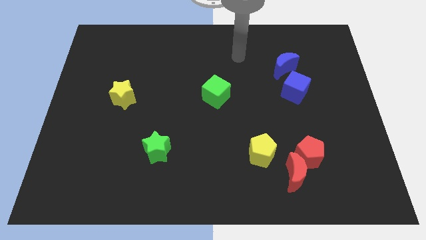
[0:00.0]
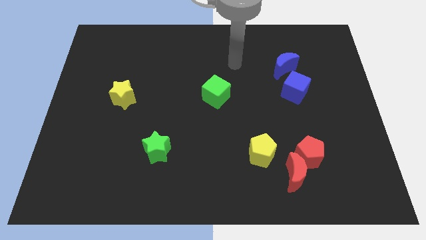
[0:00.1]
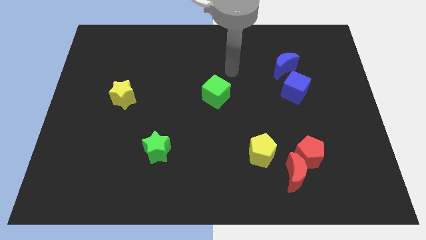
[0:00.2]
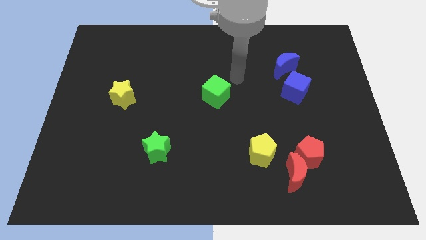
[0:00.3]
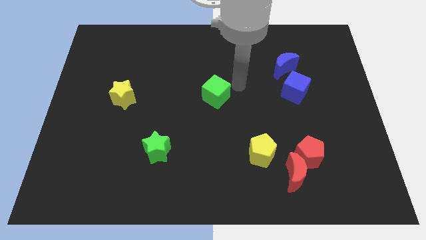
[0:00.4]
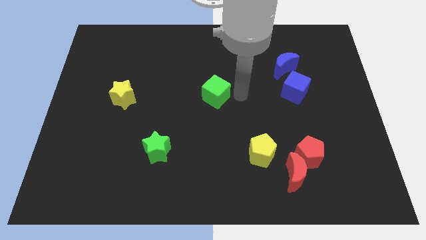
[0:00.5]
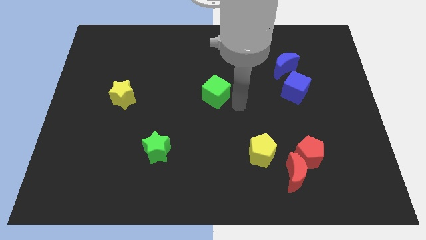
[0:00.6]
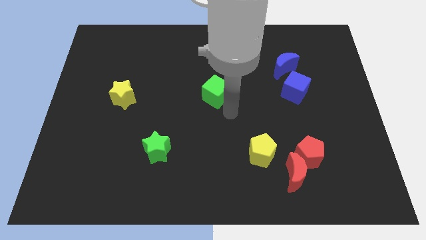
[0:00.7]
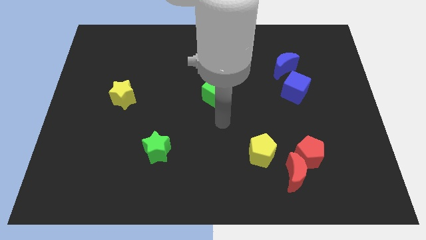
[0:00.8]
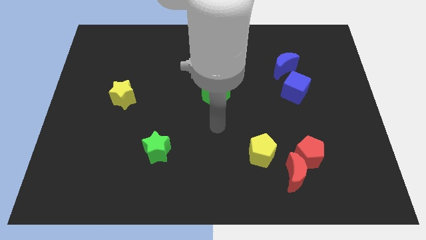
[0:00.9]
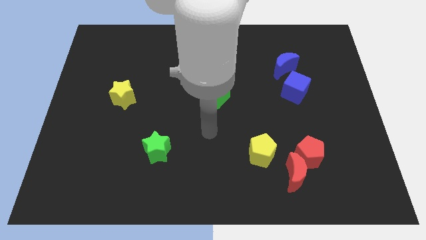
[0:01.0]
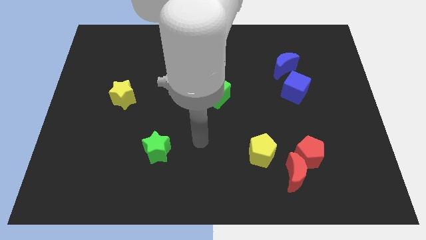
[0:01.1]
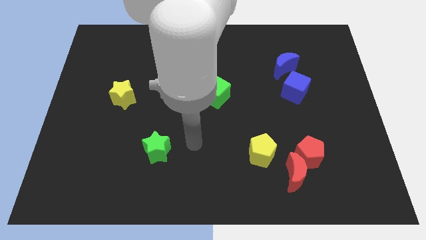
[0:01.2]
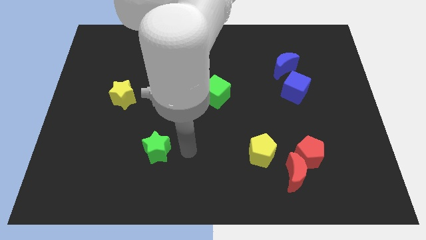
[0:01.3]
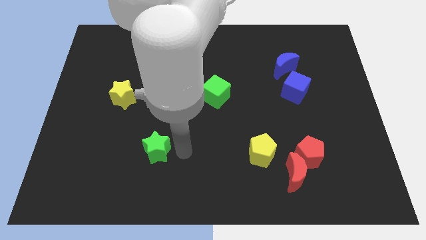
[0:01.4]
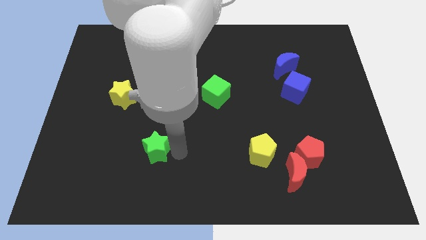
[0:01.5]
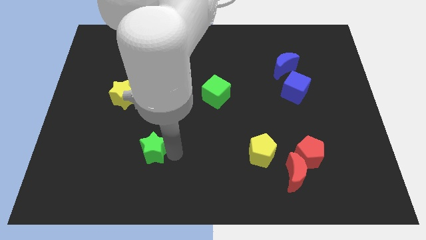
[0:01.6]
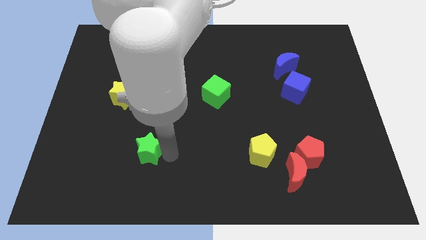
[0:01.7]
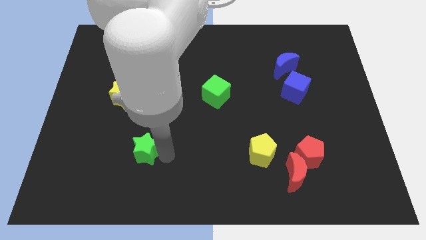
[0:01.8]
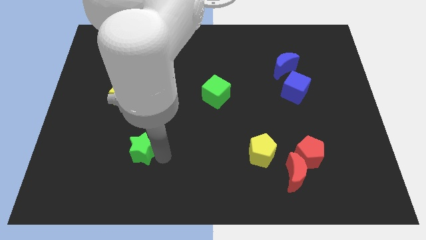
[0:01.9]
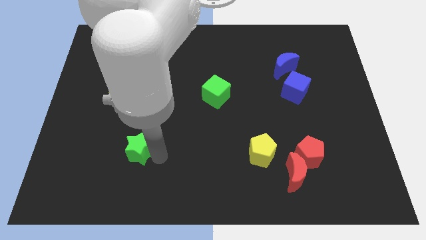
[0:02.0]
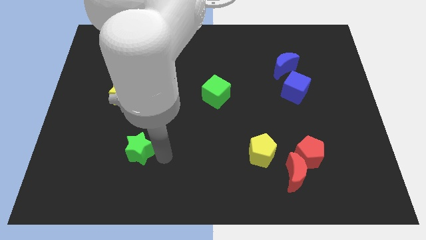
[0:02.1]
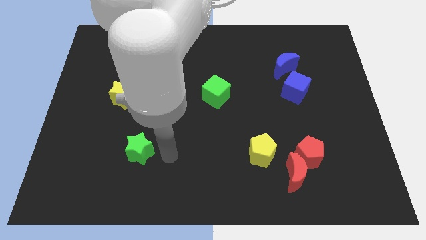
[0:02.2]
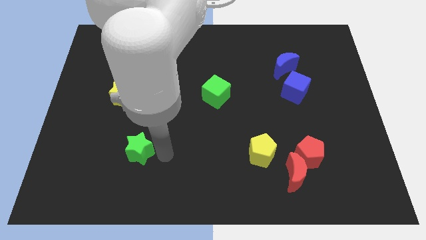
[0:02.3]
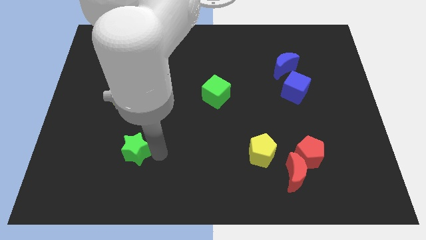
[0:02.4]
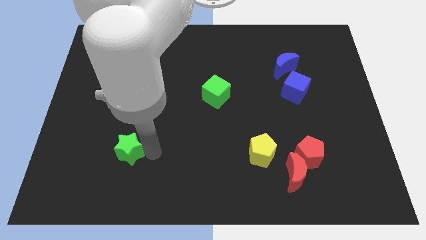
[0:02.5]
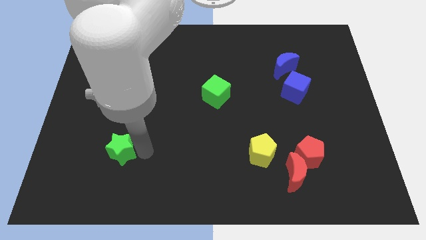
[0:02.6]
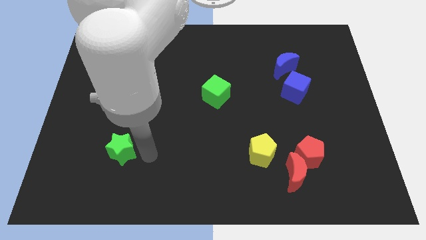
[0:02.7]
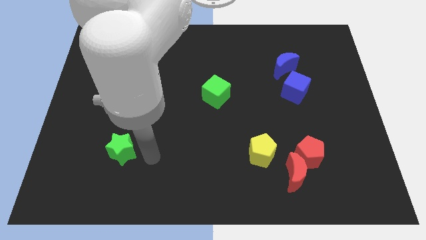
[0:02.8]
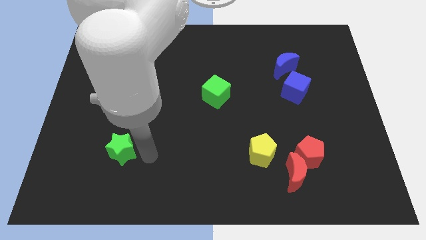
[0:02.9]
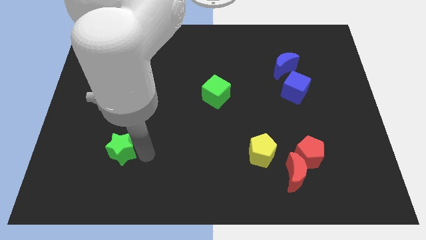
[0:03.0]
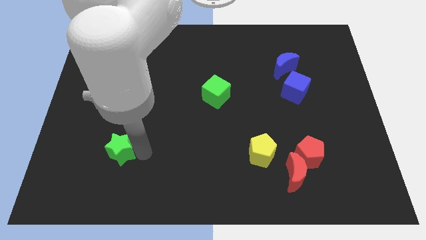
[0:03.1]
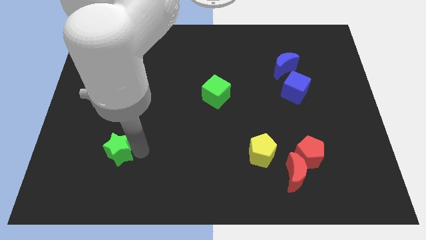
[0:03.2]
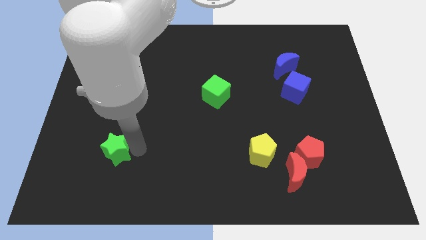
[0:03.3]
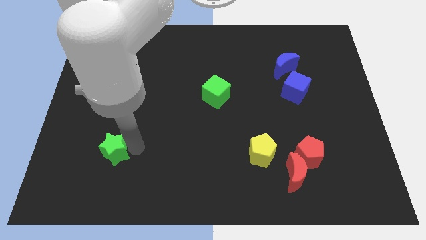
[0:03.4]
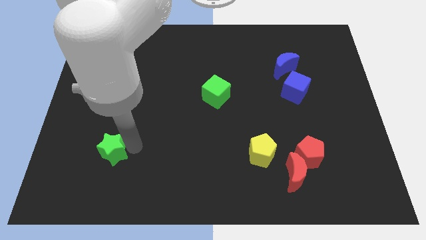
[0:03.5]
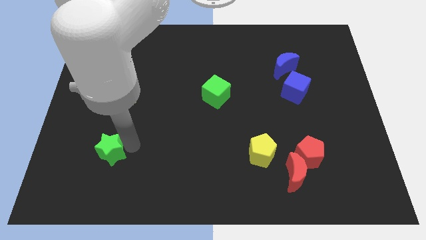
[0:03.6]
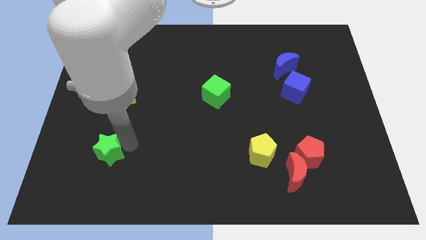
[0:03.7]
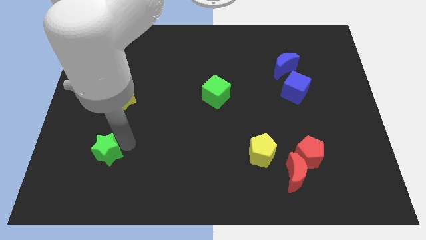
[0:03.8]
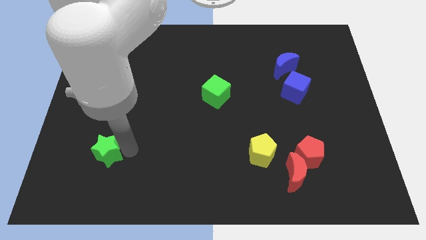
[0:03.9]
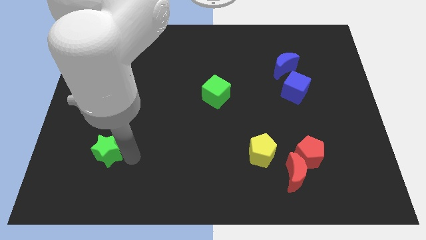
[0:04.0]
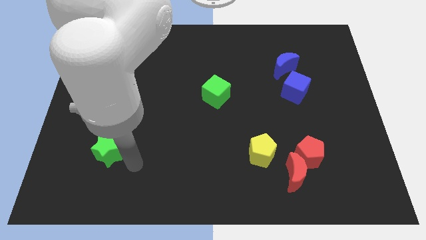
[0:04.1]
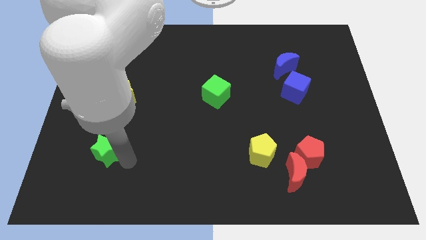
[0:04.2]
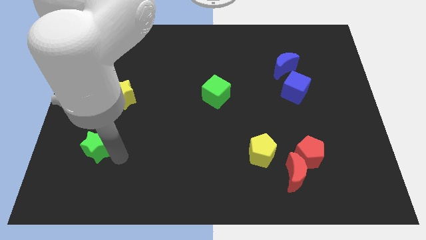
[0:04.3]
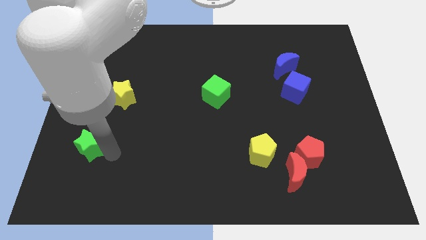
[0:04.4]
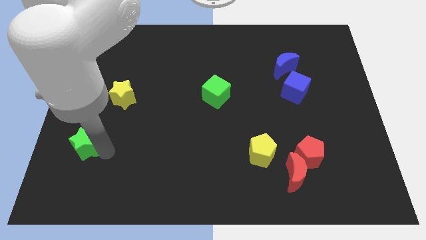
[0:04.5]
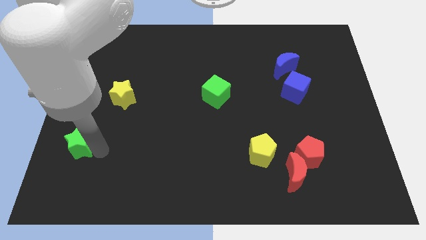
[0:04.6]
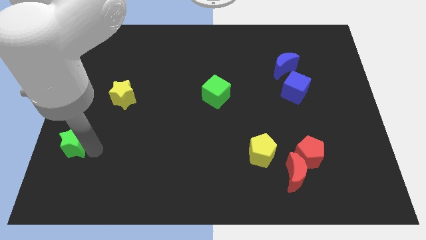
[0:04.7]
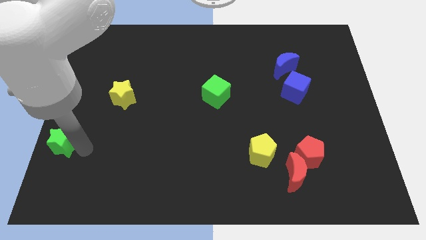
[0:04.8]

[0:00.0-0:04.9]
push the green star to the left side

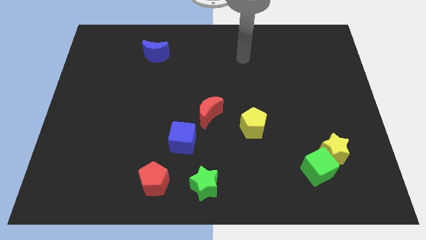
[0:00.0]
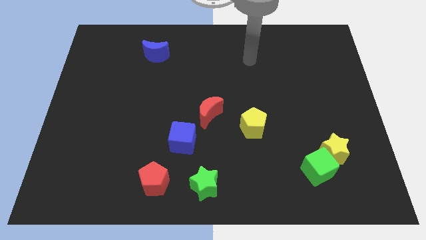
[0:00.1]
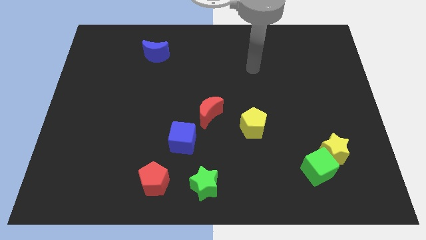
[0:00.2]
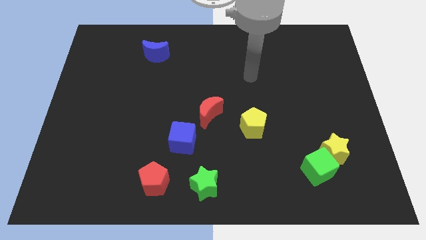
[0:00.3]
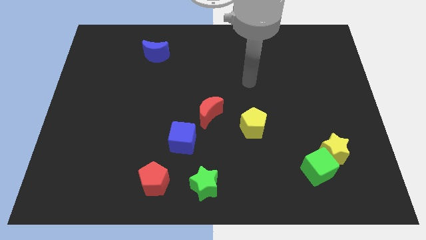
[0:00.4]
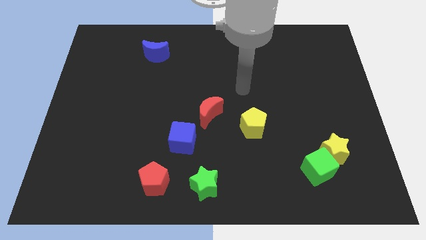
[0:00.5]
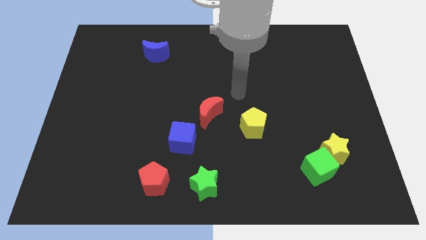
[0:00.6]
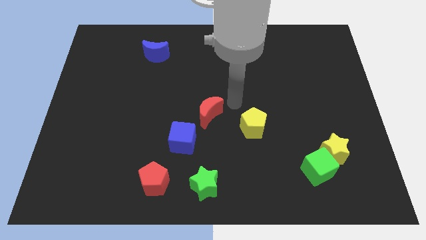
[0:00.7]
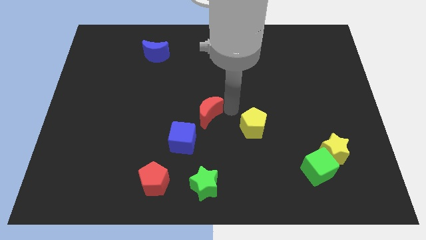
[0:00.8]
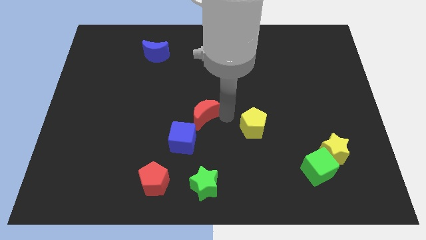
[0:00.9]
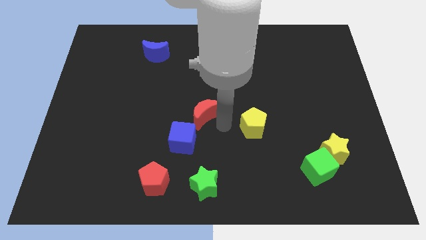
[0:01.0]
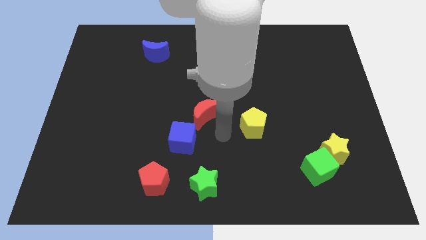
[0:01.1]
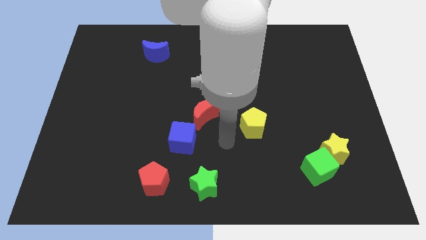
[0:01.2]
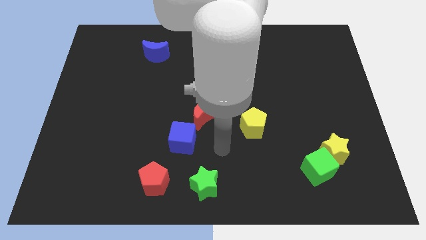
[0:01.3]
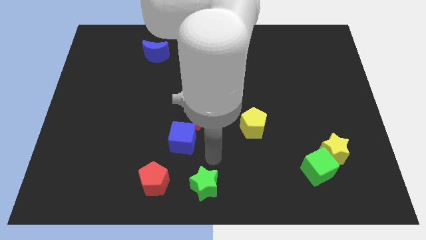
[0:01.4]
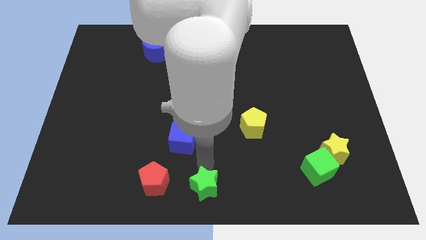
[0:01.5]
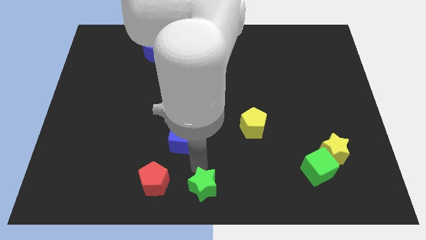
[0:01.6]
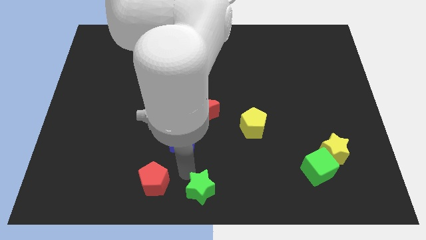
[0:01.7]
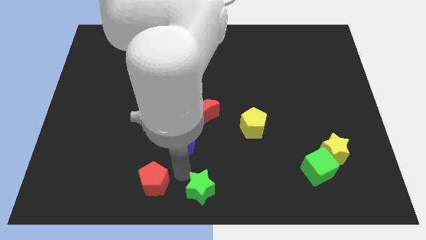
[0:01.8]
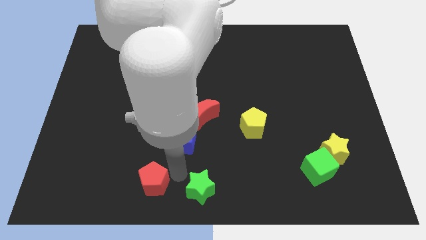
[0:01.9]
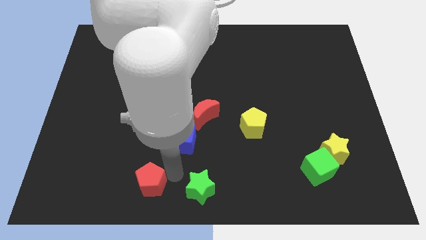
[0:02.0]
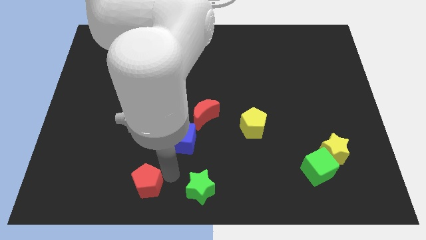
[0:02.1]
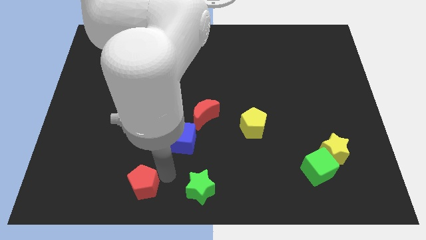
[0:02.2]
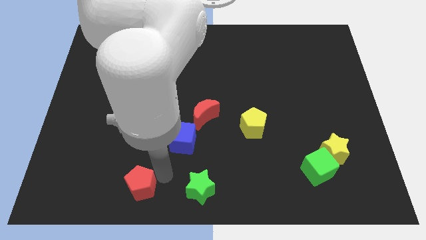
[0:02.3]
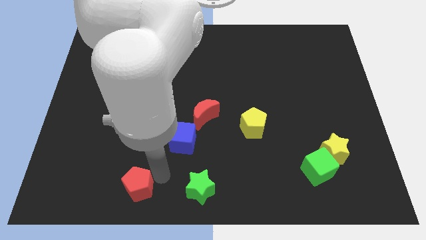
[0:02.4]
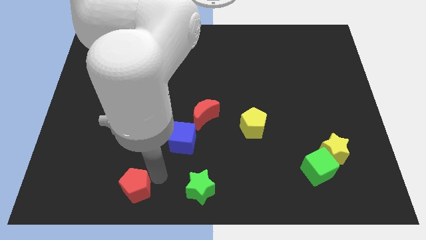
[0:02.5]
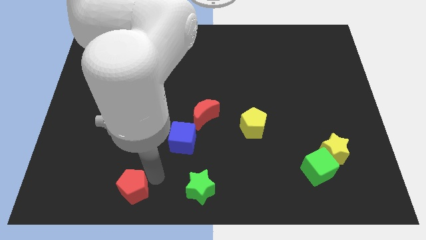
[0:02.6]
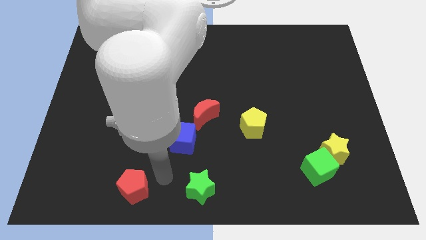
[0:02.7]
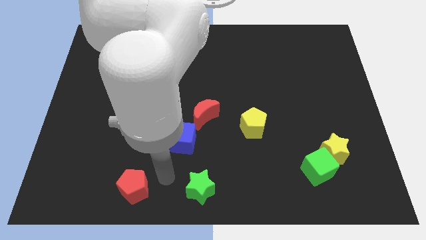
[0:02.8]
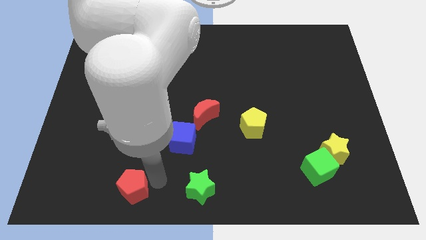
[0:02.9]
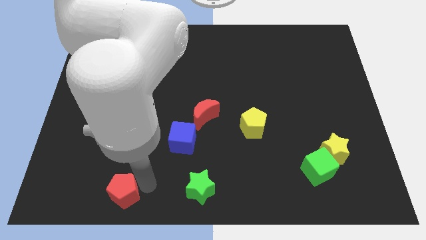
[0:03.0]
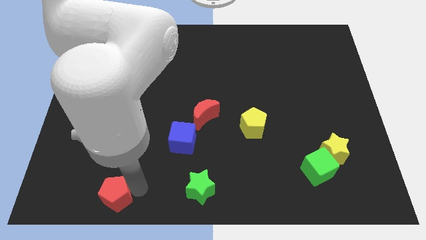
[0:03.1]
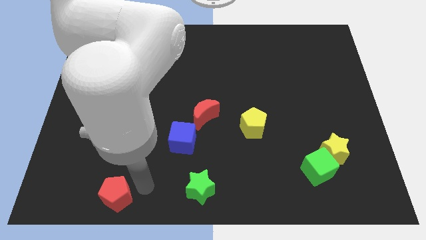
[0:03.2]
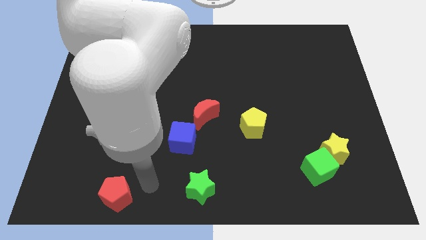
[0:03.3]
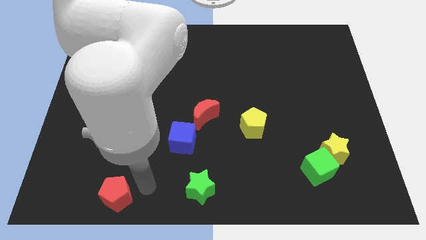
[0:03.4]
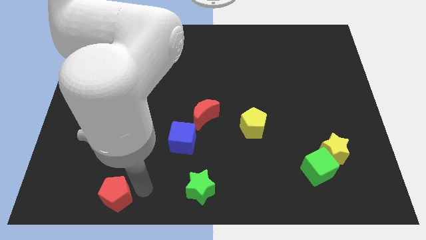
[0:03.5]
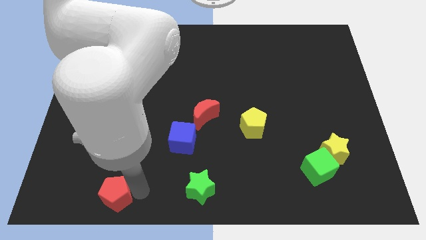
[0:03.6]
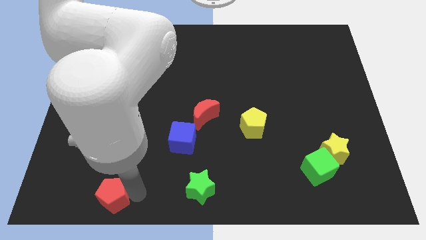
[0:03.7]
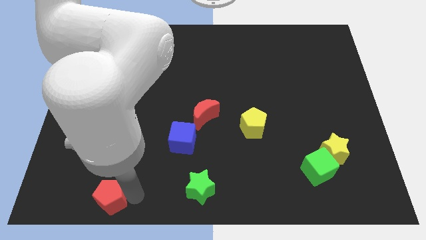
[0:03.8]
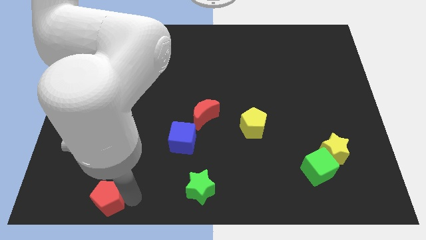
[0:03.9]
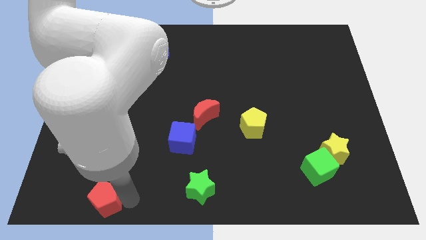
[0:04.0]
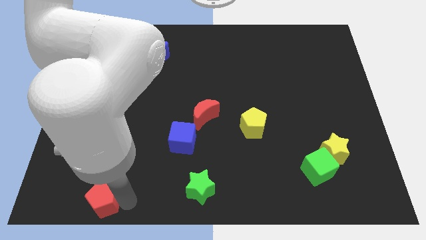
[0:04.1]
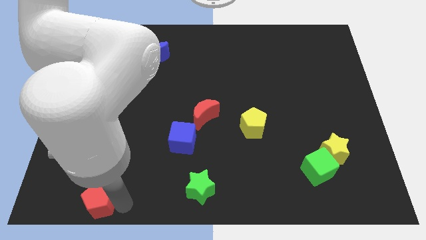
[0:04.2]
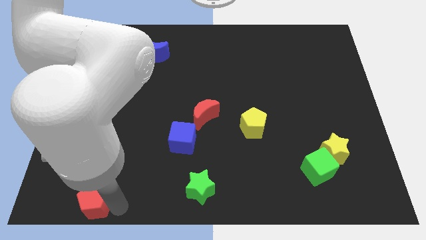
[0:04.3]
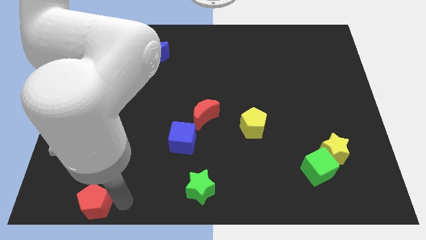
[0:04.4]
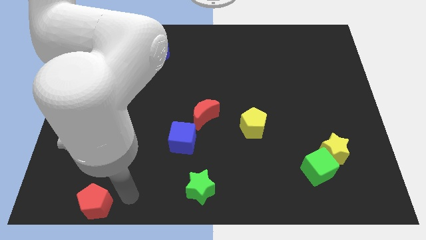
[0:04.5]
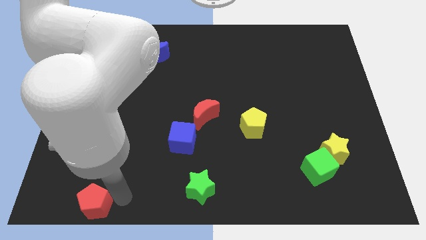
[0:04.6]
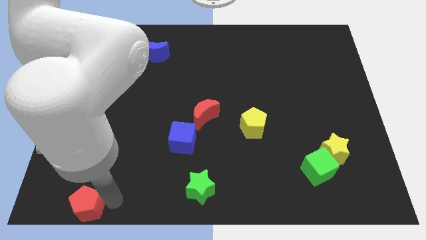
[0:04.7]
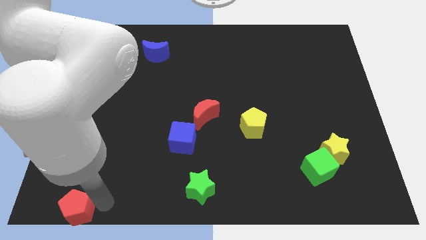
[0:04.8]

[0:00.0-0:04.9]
put the red pentagon to the bottom left corner
